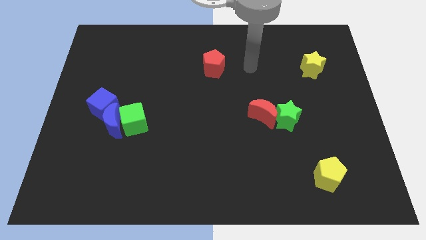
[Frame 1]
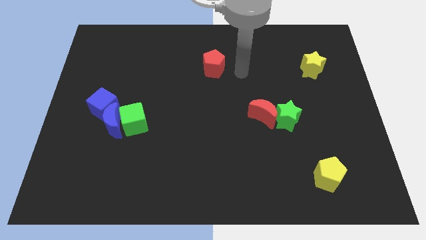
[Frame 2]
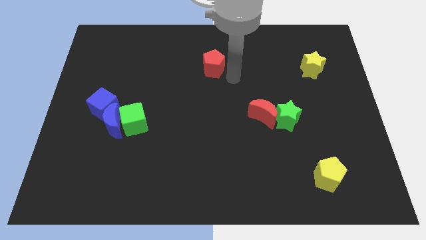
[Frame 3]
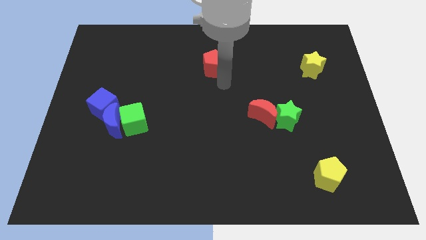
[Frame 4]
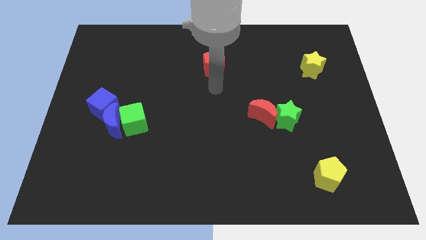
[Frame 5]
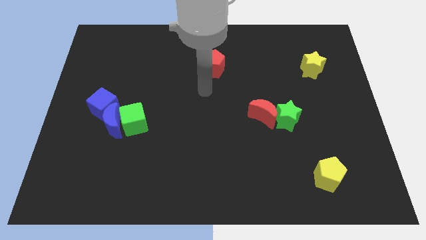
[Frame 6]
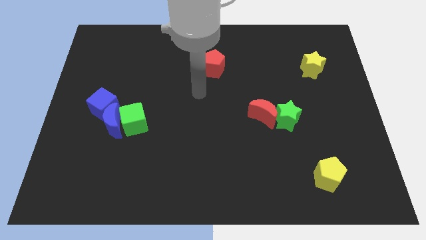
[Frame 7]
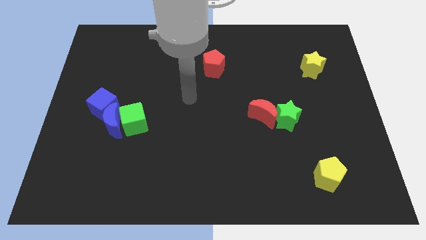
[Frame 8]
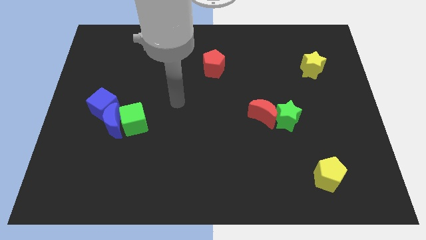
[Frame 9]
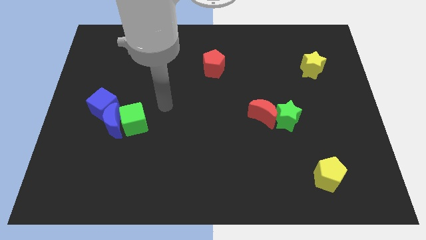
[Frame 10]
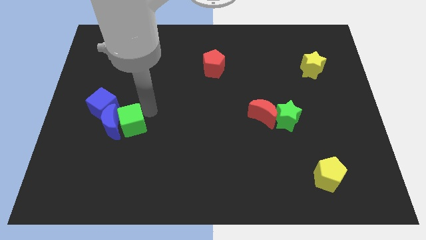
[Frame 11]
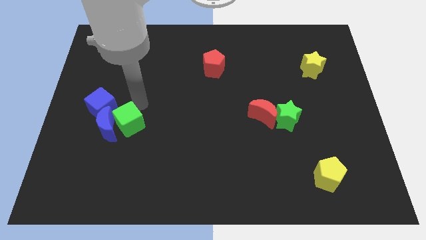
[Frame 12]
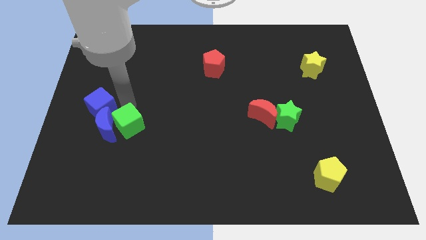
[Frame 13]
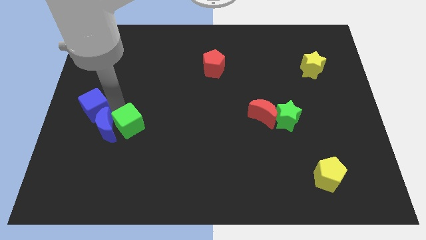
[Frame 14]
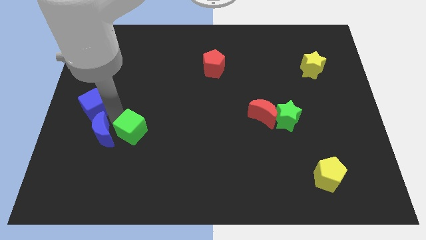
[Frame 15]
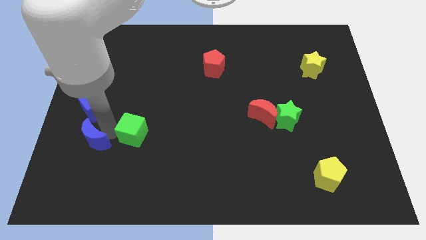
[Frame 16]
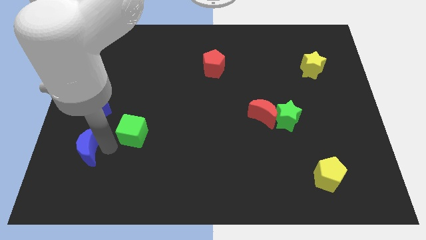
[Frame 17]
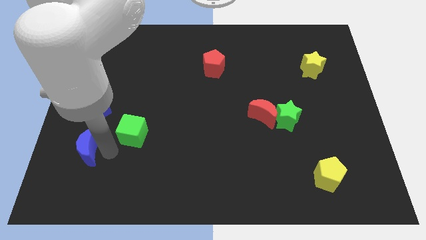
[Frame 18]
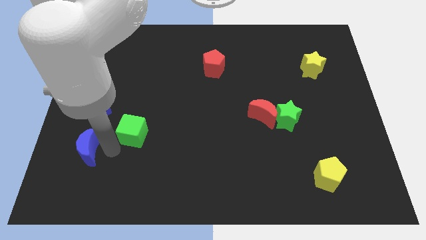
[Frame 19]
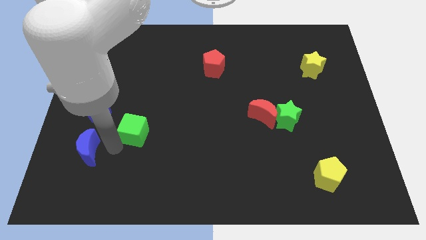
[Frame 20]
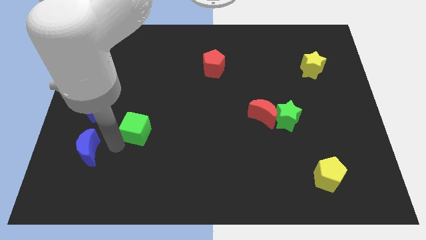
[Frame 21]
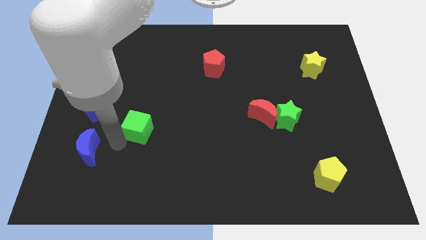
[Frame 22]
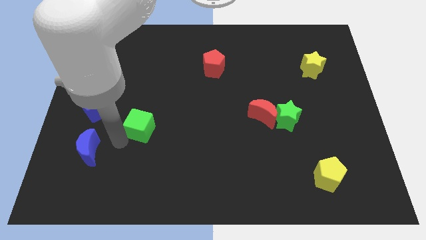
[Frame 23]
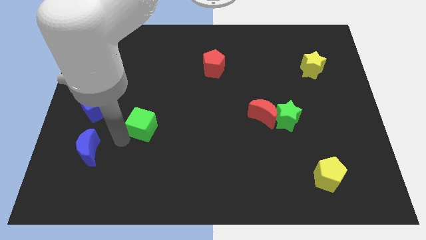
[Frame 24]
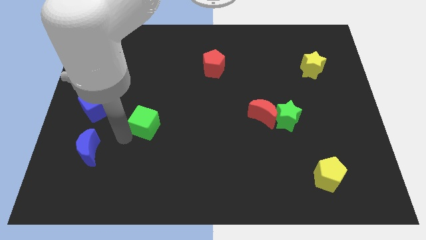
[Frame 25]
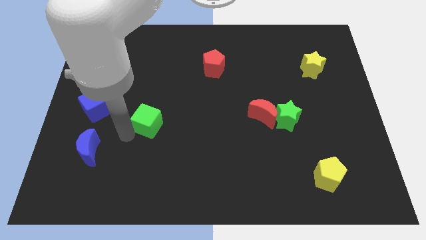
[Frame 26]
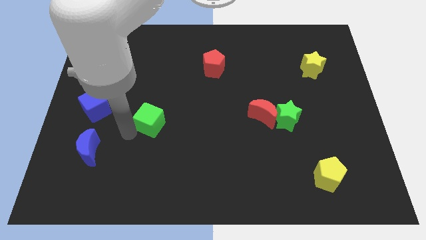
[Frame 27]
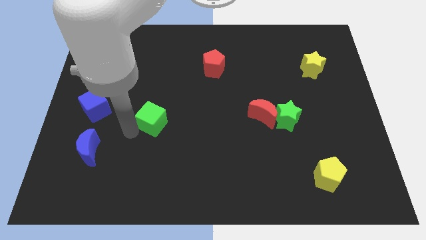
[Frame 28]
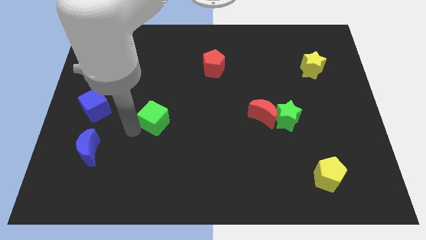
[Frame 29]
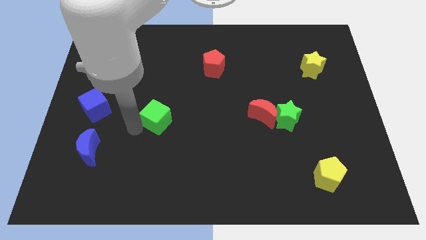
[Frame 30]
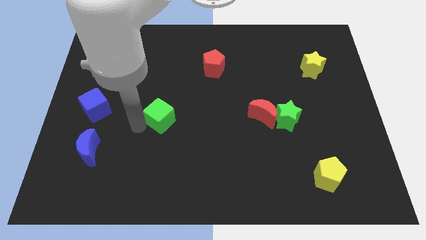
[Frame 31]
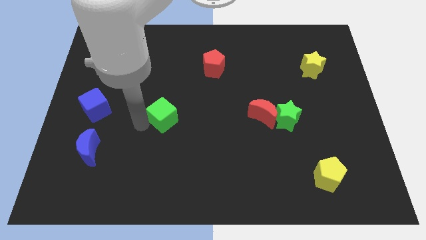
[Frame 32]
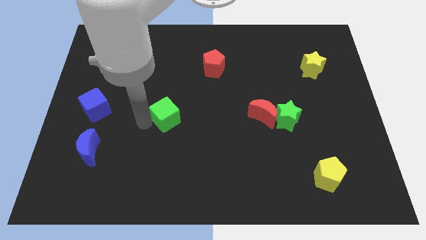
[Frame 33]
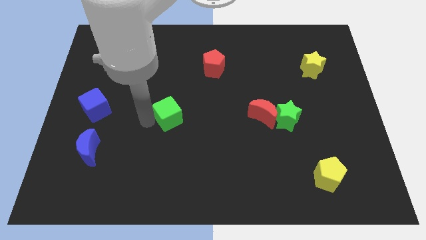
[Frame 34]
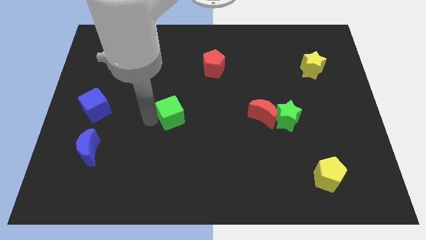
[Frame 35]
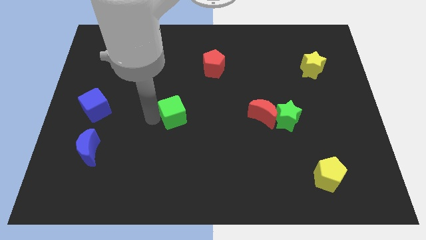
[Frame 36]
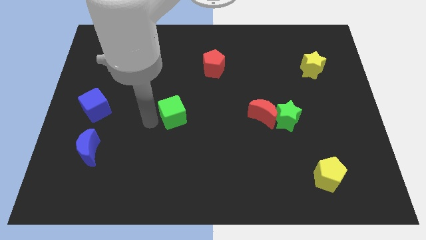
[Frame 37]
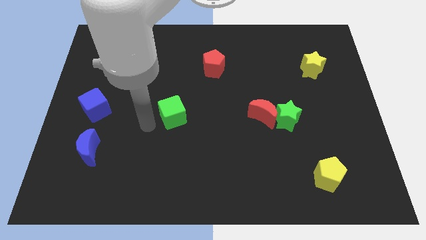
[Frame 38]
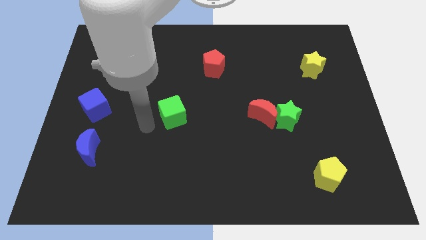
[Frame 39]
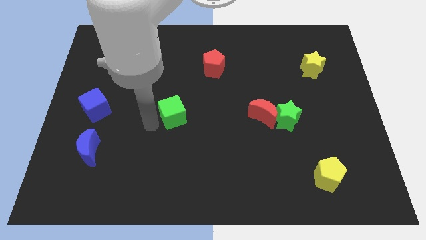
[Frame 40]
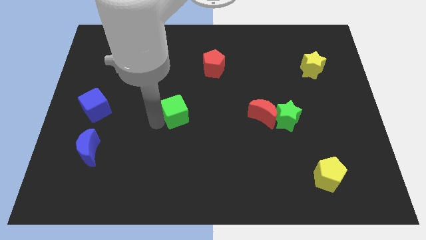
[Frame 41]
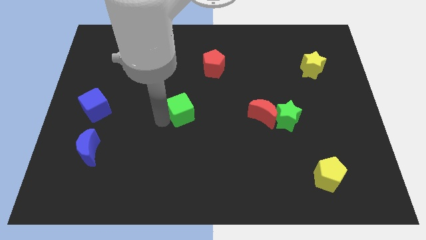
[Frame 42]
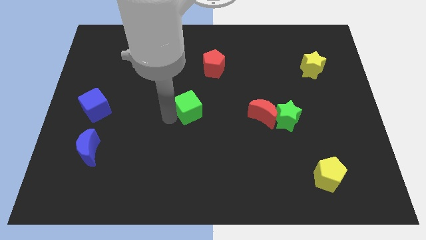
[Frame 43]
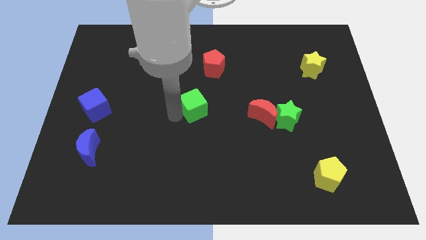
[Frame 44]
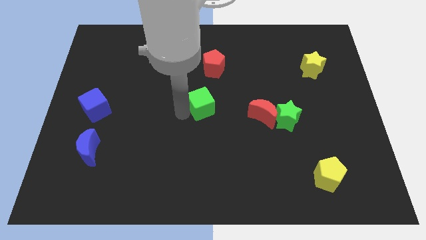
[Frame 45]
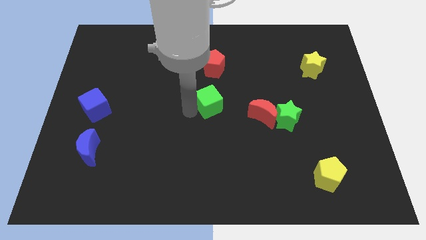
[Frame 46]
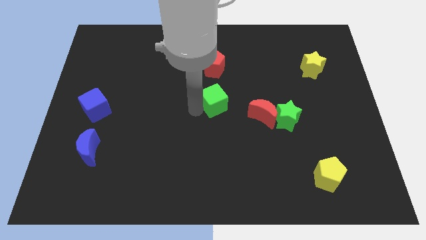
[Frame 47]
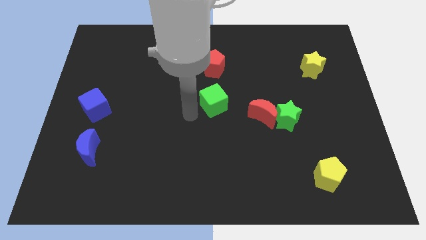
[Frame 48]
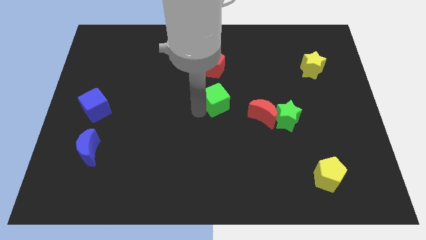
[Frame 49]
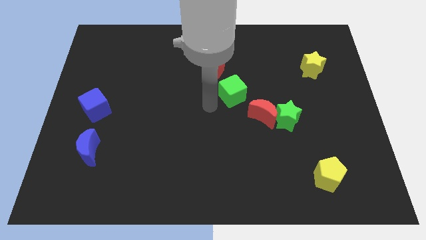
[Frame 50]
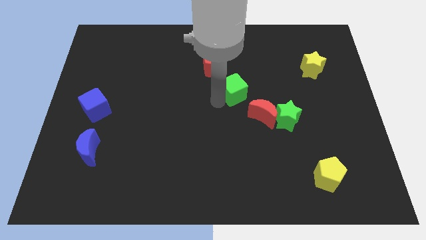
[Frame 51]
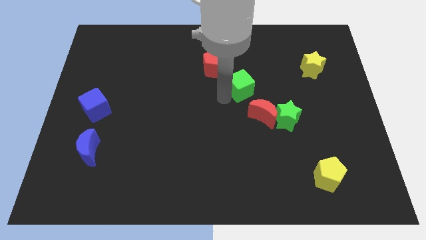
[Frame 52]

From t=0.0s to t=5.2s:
move the green cube to the top of the red moon
